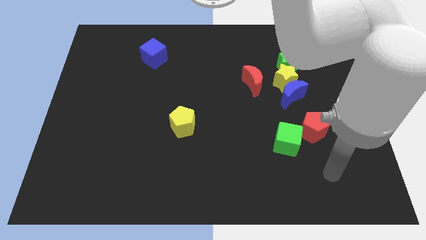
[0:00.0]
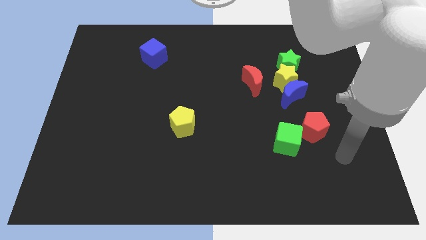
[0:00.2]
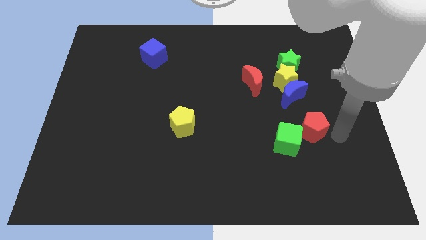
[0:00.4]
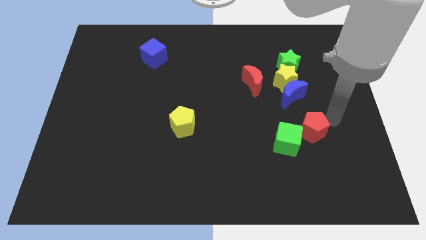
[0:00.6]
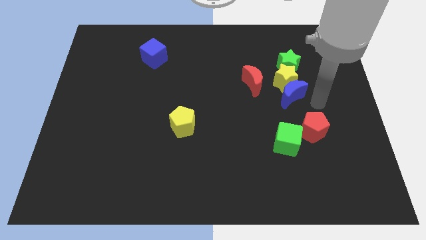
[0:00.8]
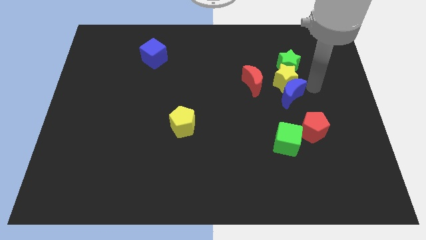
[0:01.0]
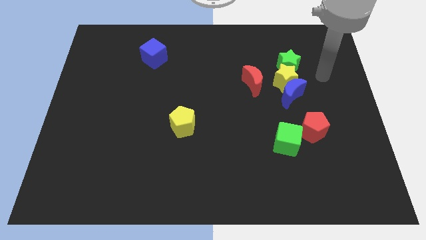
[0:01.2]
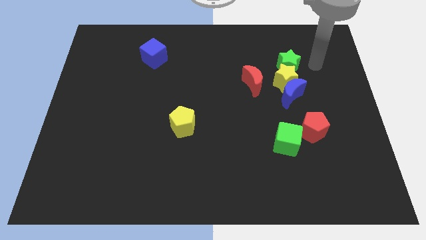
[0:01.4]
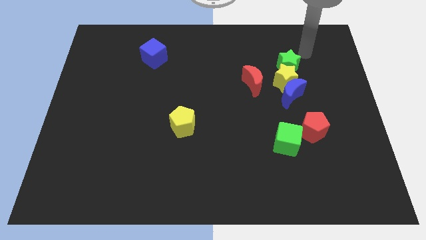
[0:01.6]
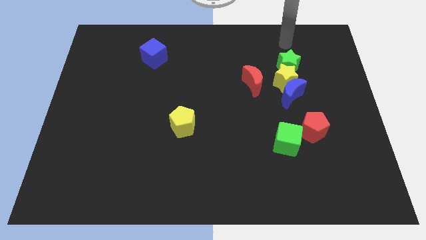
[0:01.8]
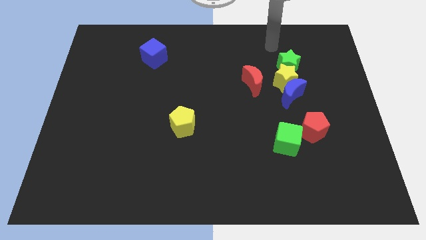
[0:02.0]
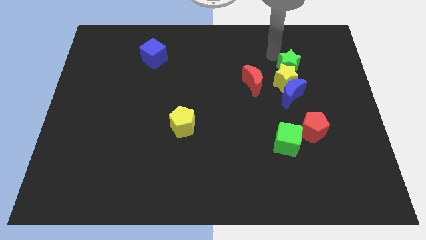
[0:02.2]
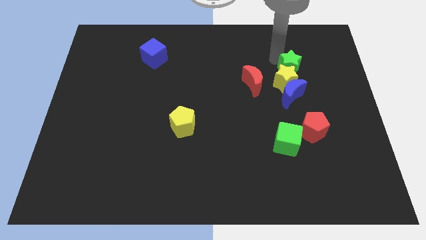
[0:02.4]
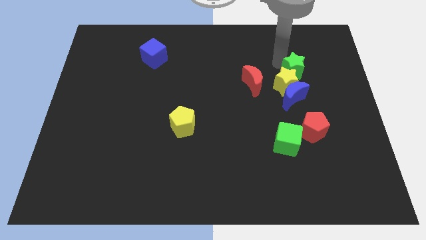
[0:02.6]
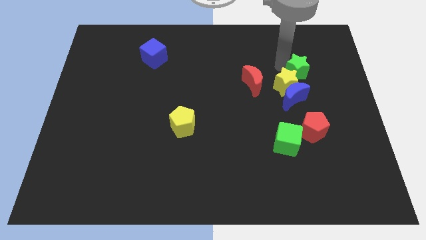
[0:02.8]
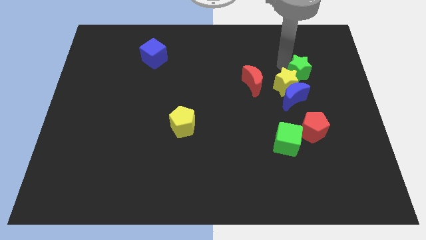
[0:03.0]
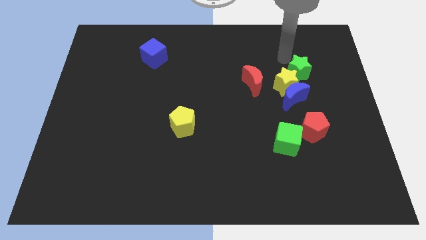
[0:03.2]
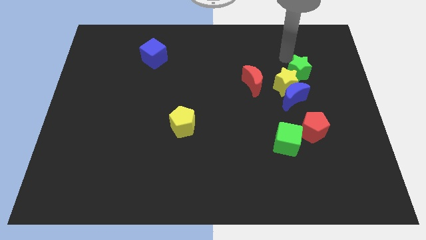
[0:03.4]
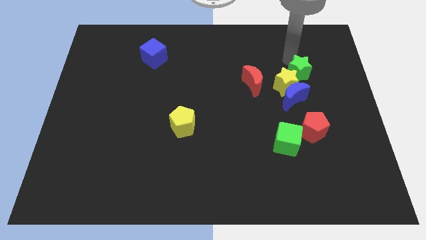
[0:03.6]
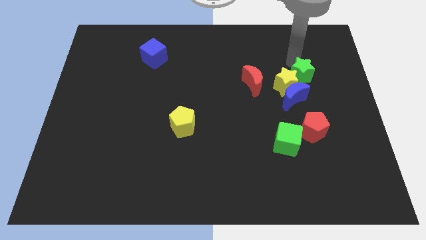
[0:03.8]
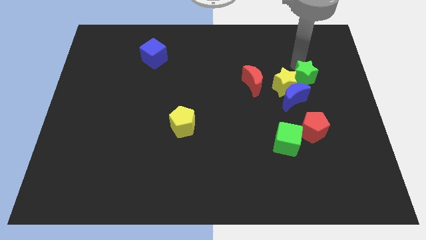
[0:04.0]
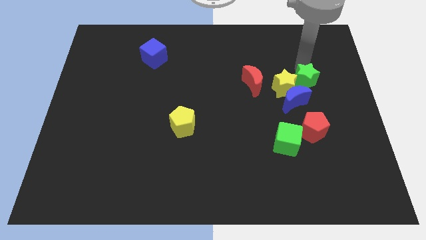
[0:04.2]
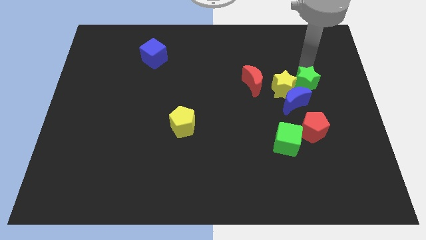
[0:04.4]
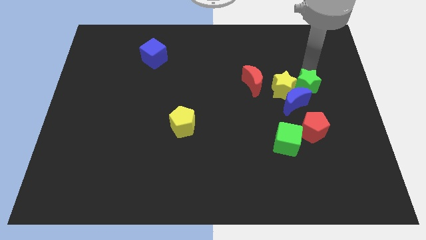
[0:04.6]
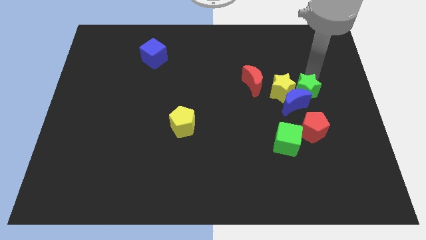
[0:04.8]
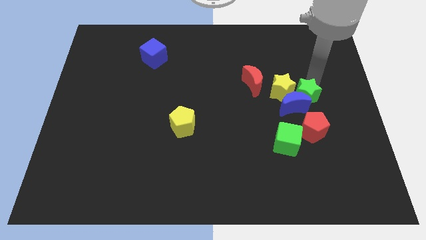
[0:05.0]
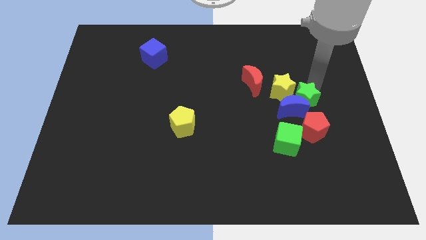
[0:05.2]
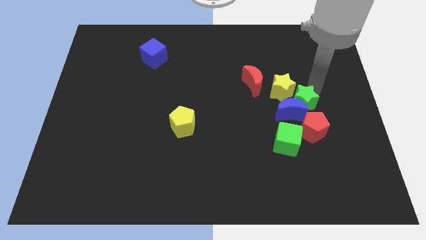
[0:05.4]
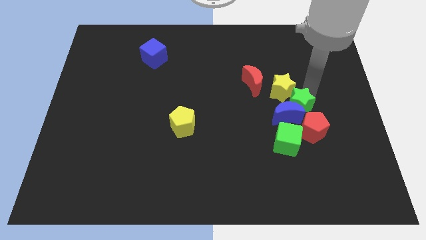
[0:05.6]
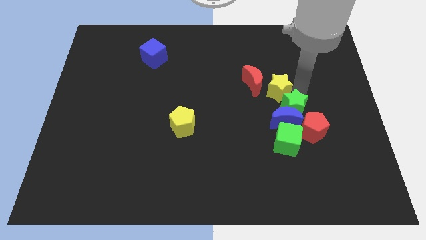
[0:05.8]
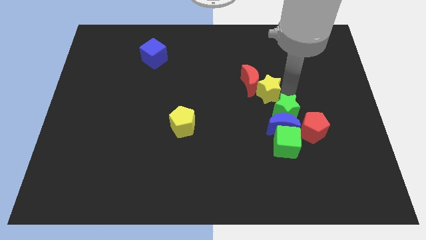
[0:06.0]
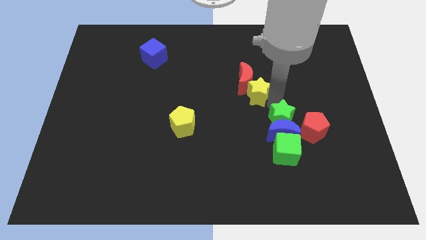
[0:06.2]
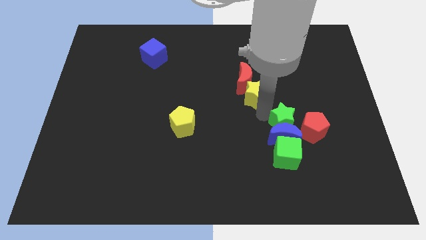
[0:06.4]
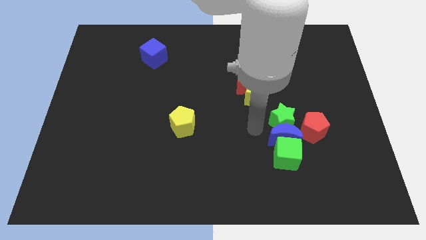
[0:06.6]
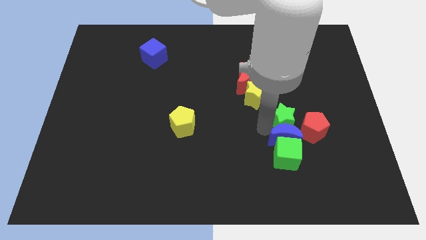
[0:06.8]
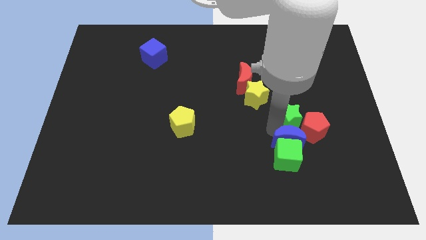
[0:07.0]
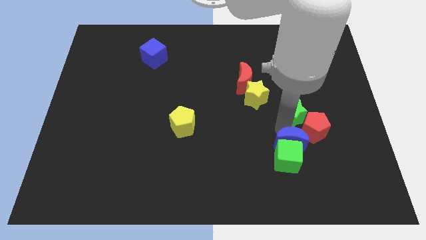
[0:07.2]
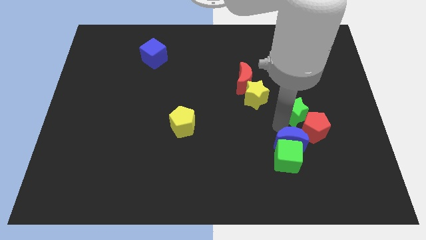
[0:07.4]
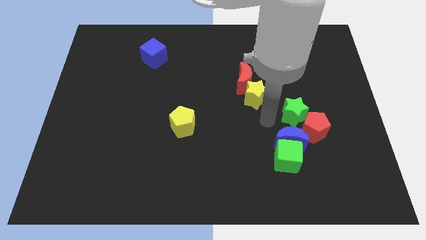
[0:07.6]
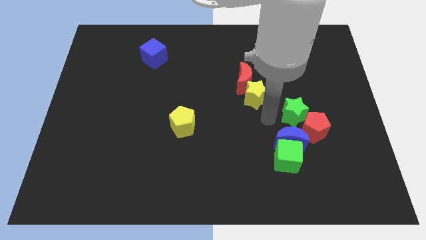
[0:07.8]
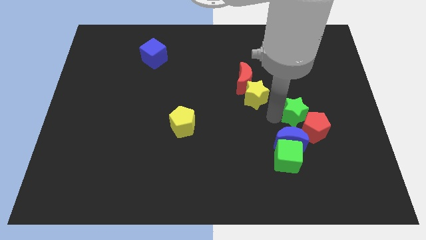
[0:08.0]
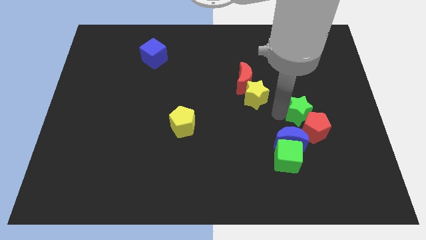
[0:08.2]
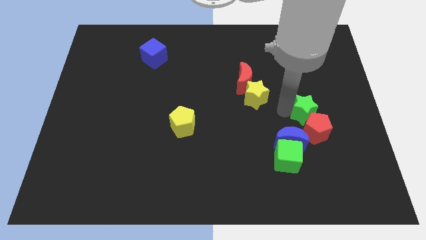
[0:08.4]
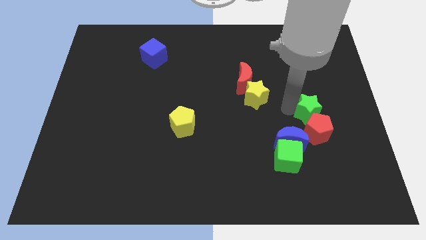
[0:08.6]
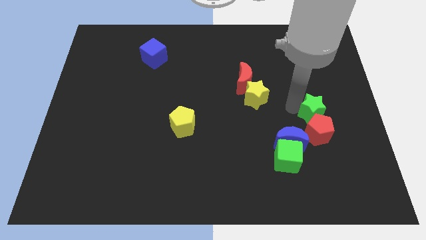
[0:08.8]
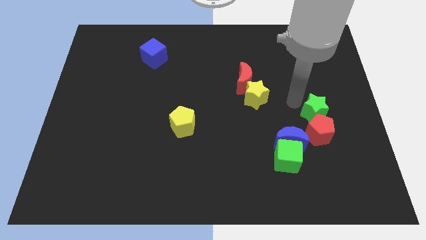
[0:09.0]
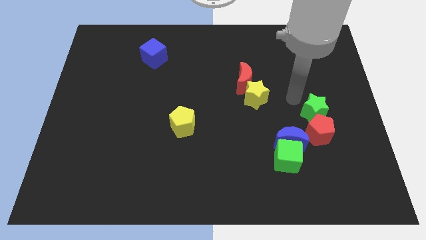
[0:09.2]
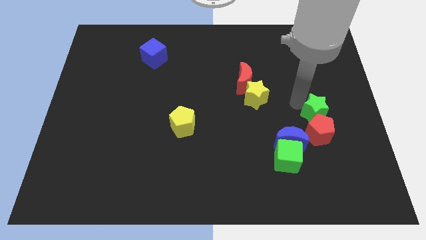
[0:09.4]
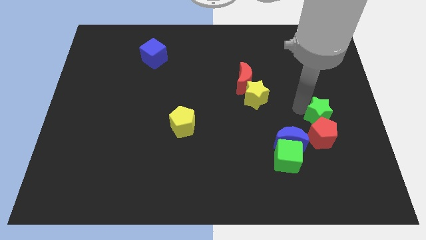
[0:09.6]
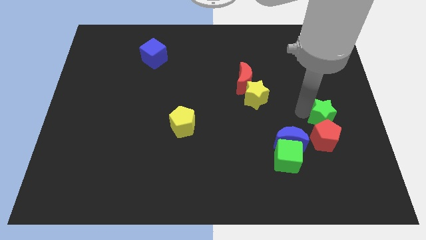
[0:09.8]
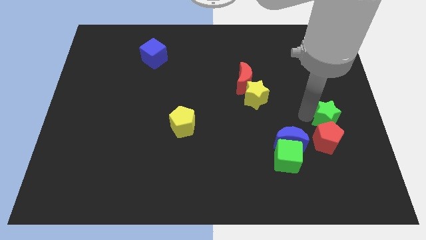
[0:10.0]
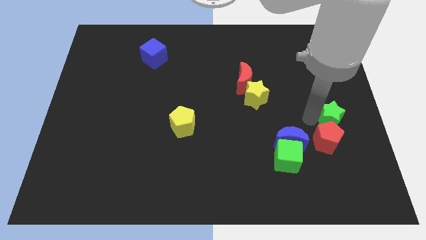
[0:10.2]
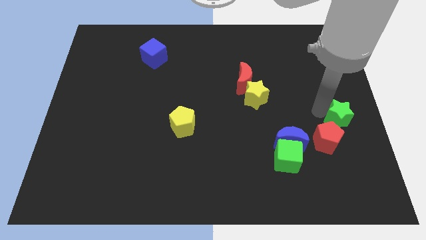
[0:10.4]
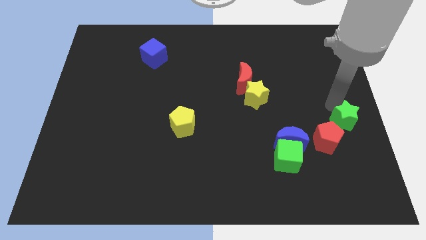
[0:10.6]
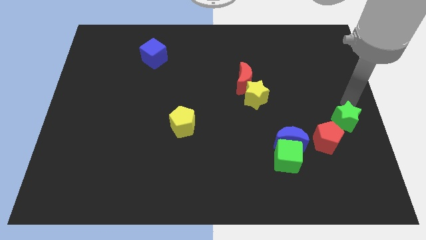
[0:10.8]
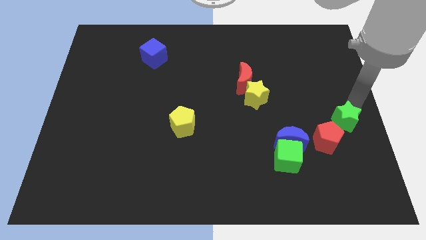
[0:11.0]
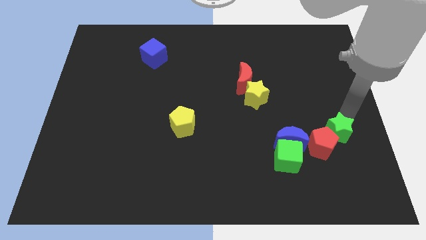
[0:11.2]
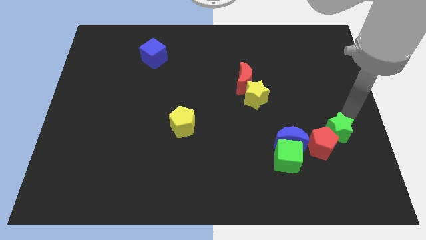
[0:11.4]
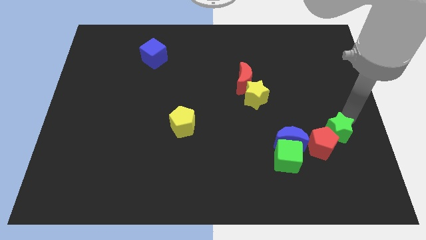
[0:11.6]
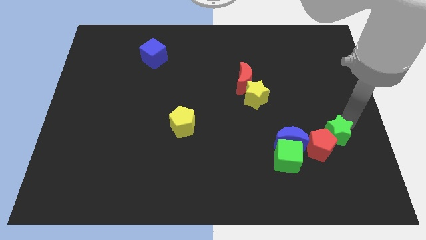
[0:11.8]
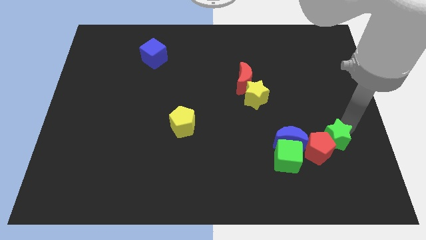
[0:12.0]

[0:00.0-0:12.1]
move the green star down

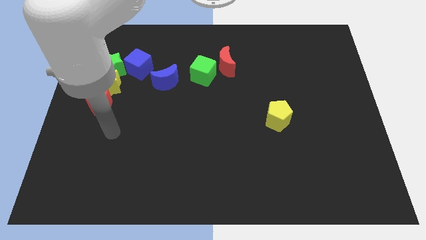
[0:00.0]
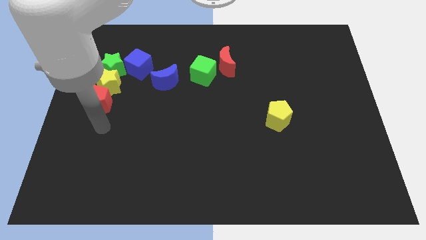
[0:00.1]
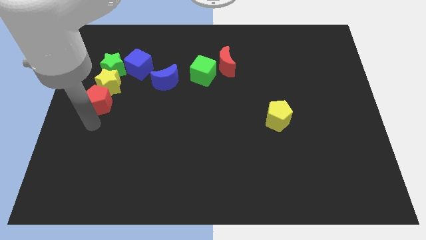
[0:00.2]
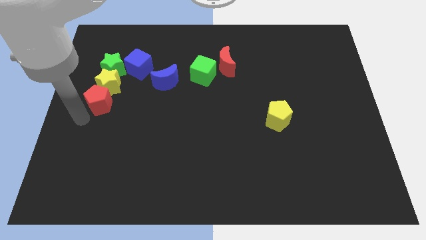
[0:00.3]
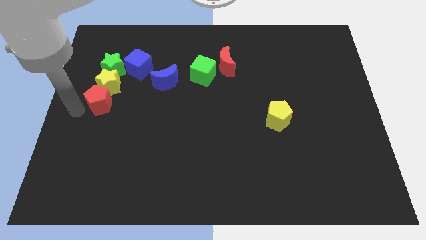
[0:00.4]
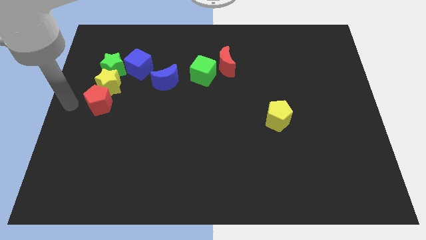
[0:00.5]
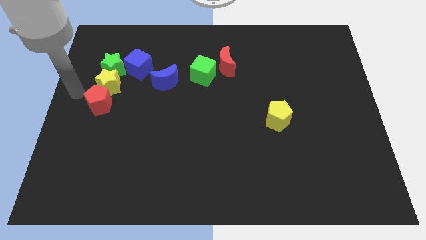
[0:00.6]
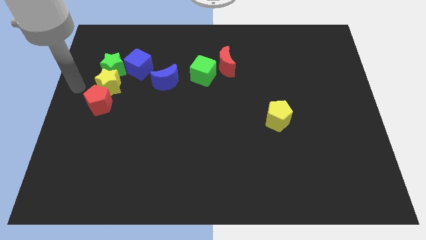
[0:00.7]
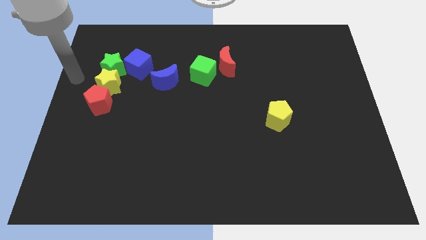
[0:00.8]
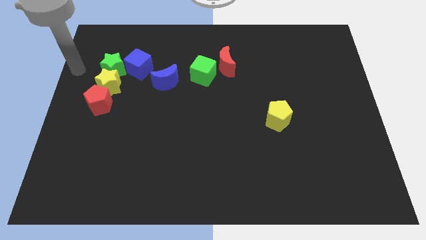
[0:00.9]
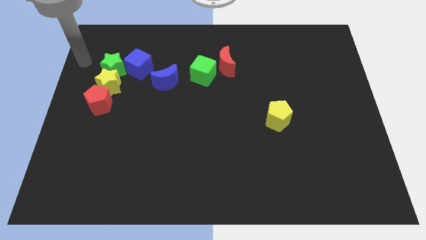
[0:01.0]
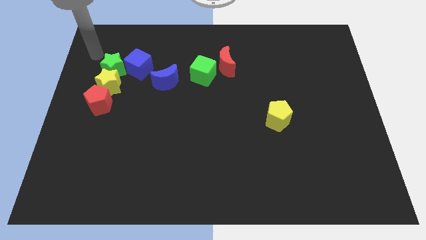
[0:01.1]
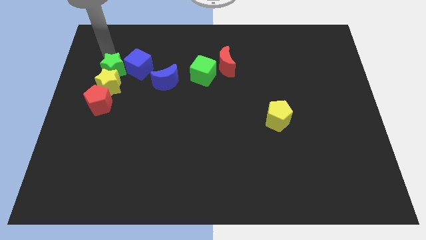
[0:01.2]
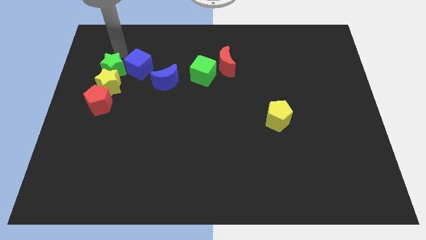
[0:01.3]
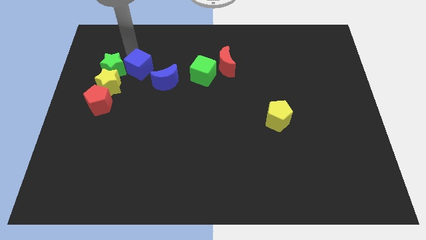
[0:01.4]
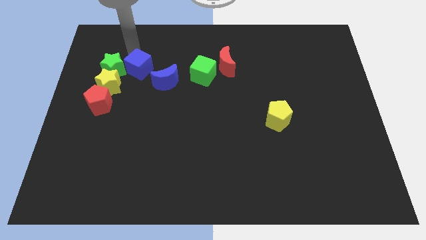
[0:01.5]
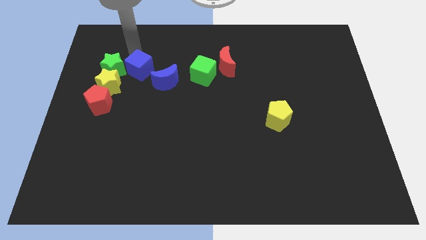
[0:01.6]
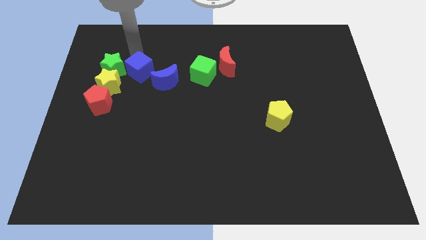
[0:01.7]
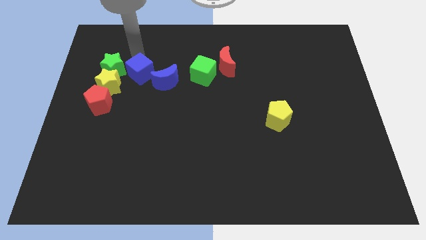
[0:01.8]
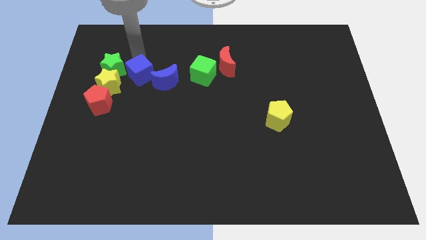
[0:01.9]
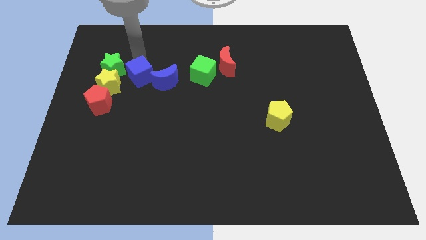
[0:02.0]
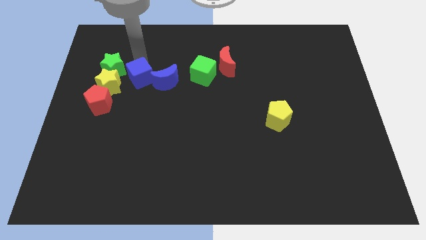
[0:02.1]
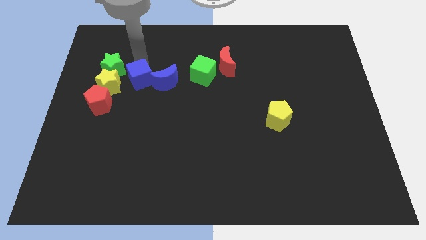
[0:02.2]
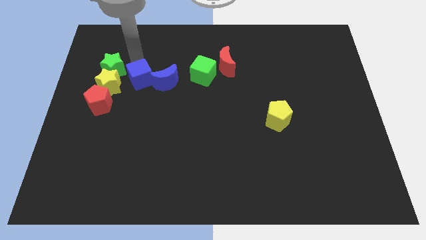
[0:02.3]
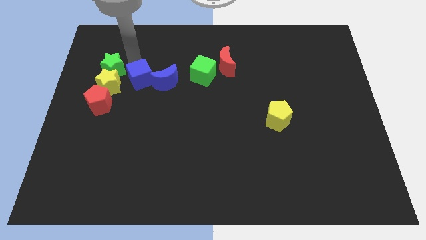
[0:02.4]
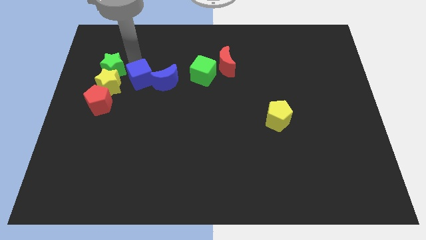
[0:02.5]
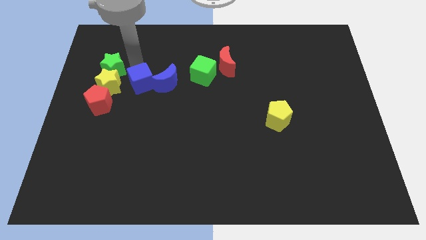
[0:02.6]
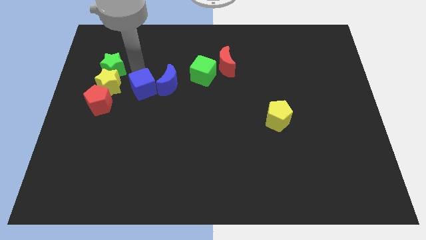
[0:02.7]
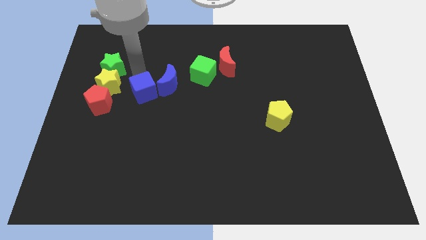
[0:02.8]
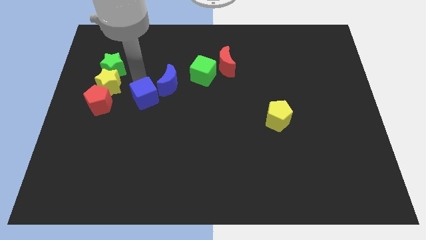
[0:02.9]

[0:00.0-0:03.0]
move the blue cube a little down and to the right diagonally
